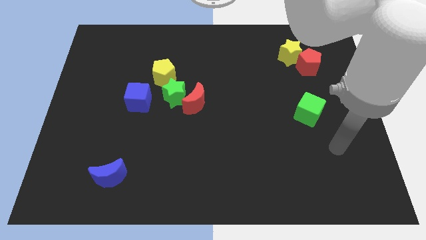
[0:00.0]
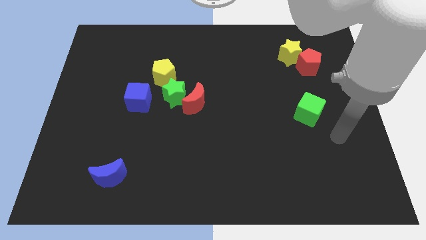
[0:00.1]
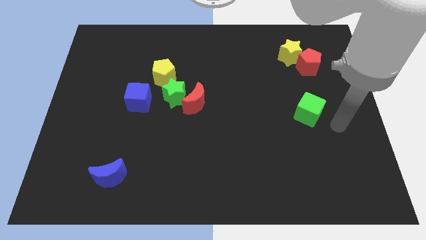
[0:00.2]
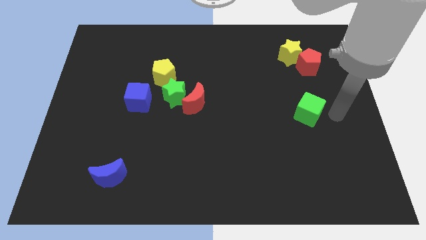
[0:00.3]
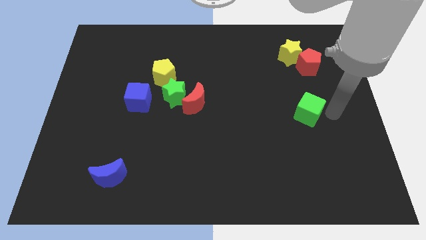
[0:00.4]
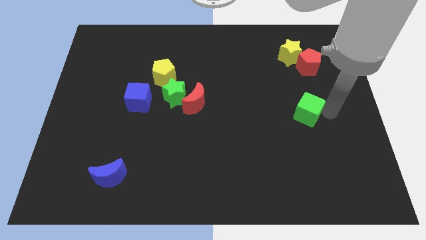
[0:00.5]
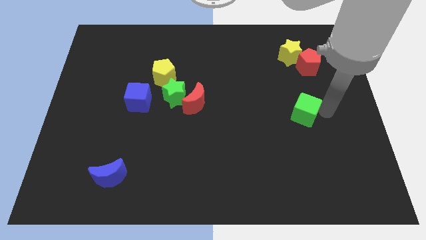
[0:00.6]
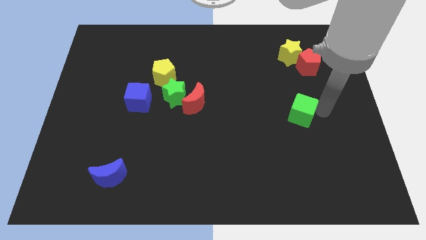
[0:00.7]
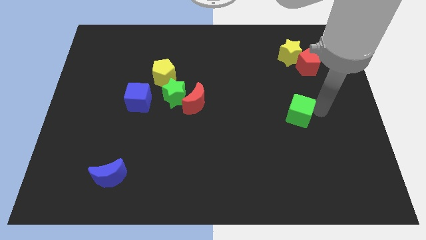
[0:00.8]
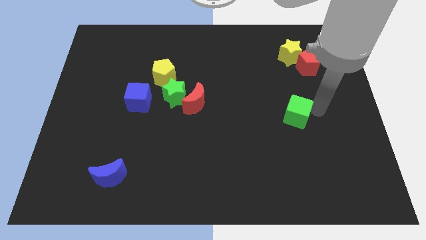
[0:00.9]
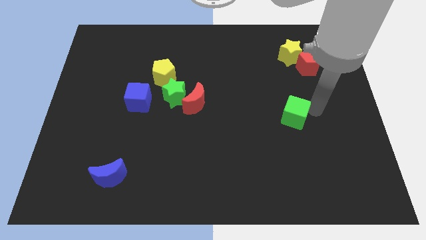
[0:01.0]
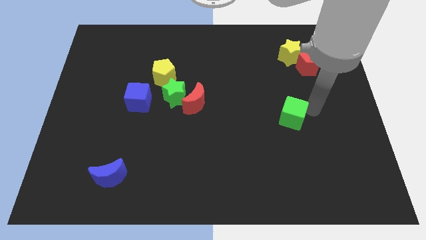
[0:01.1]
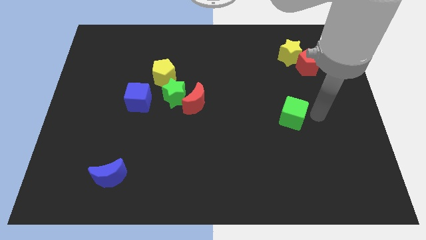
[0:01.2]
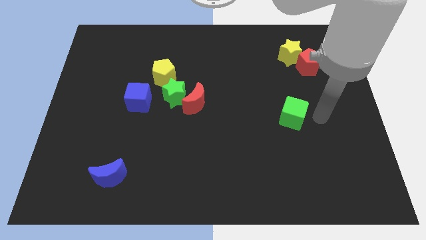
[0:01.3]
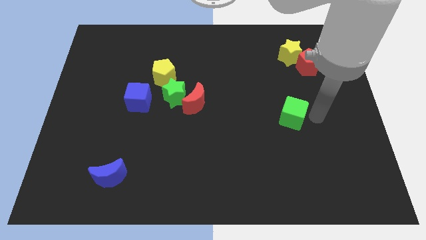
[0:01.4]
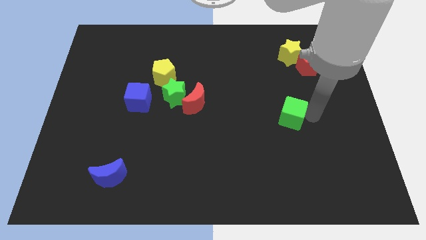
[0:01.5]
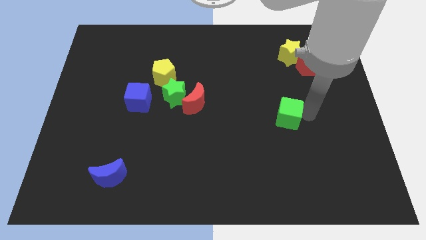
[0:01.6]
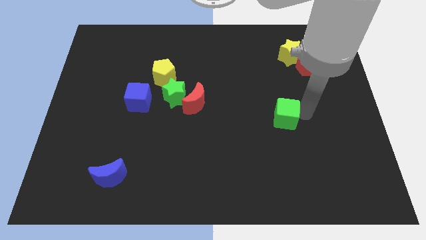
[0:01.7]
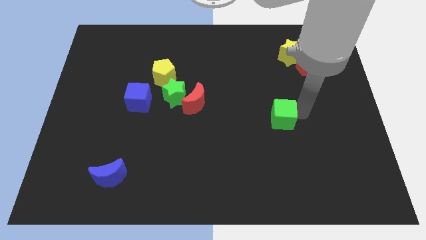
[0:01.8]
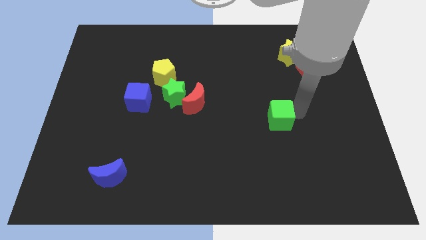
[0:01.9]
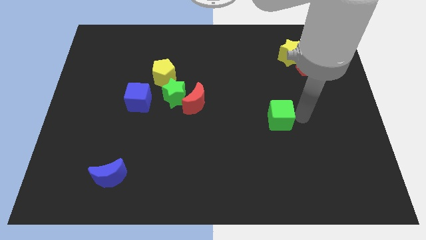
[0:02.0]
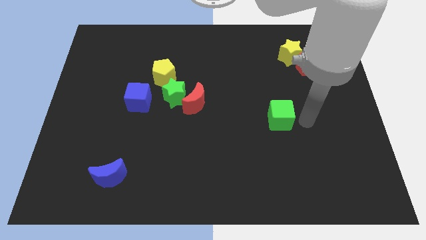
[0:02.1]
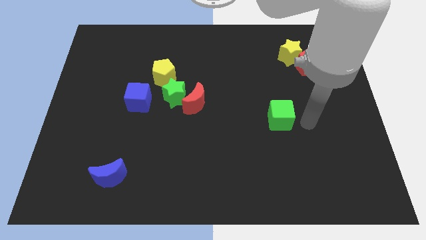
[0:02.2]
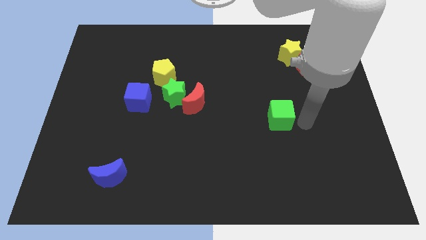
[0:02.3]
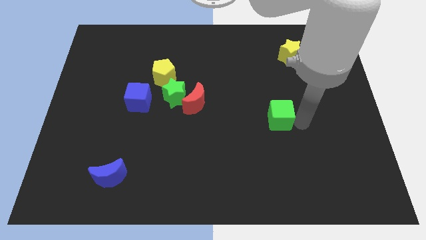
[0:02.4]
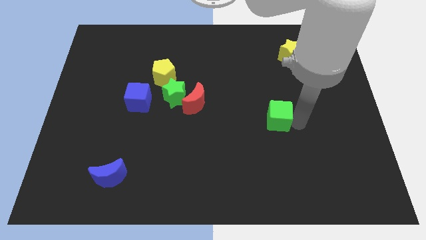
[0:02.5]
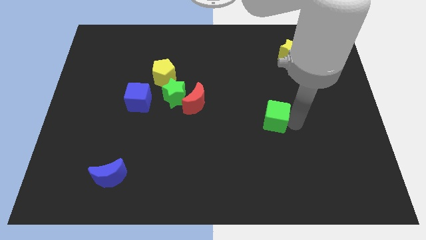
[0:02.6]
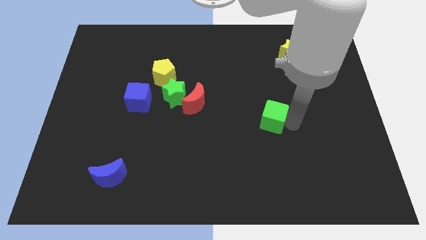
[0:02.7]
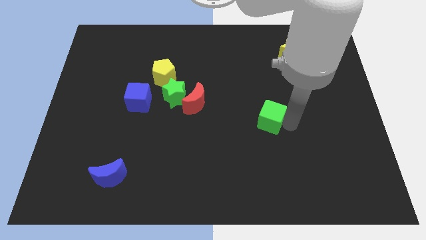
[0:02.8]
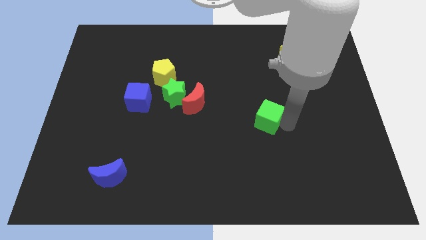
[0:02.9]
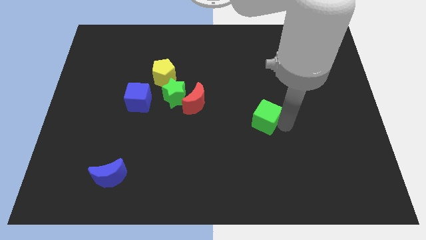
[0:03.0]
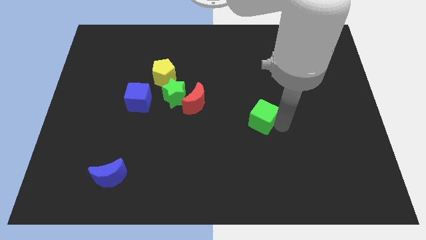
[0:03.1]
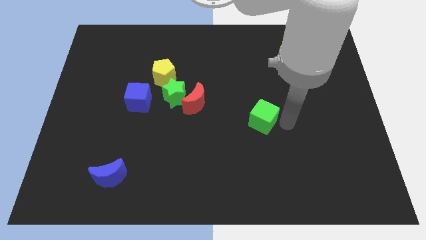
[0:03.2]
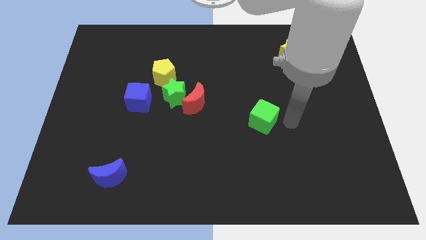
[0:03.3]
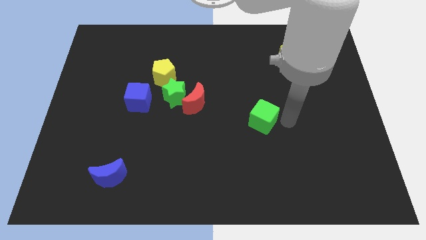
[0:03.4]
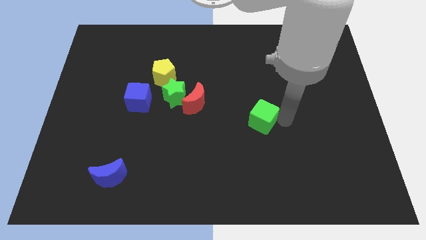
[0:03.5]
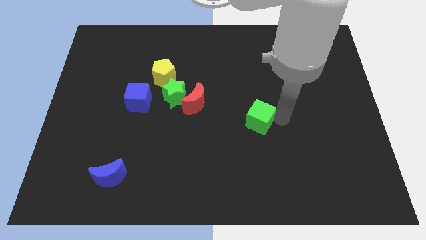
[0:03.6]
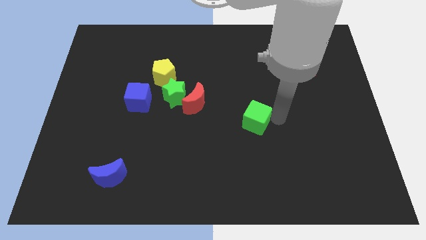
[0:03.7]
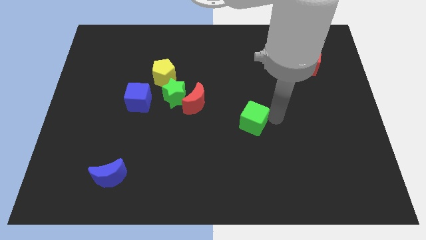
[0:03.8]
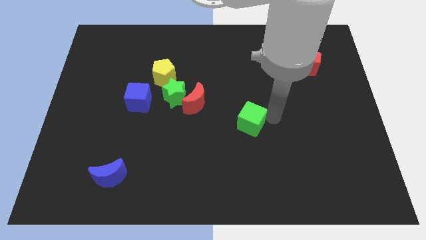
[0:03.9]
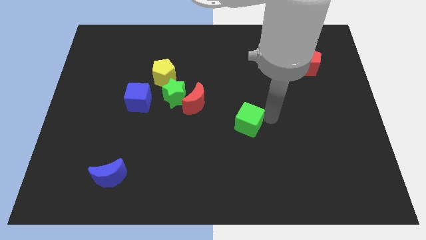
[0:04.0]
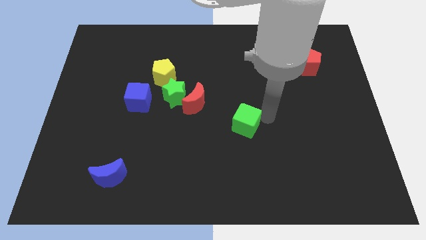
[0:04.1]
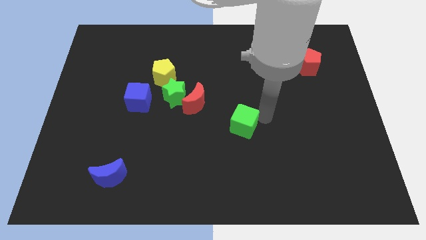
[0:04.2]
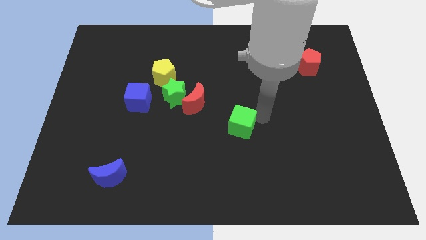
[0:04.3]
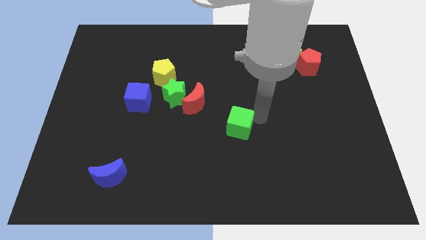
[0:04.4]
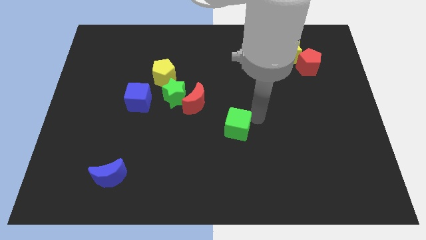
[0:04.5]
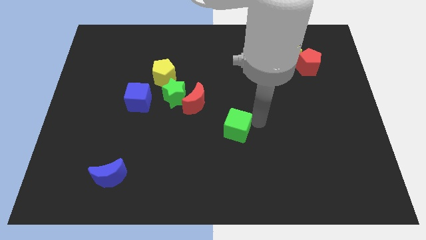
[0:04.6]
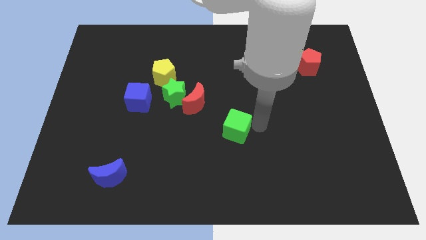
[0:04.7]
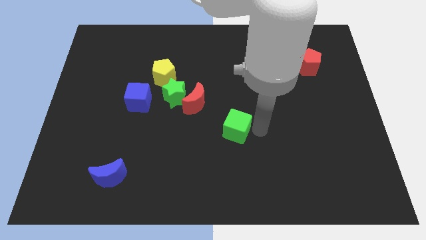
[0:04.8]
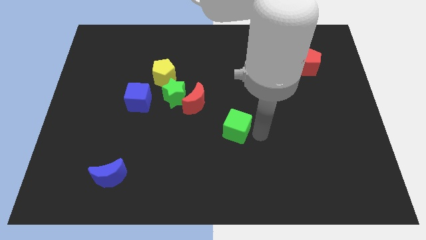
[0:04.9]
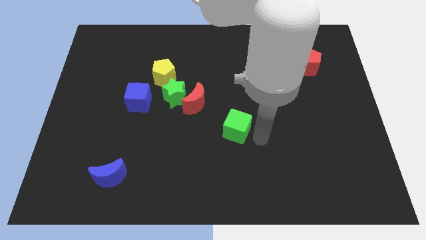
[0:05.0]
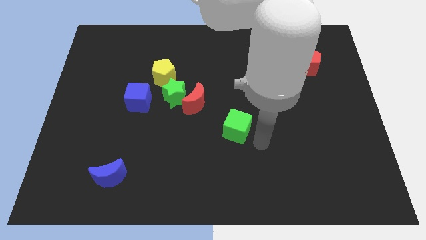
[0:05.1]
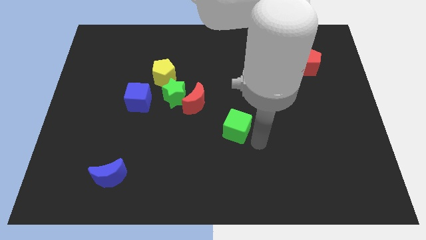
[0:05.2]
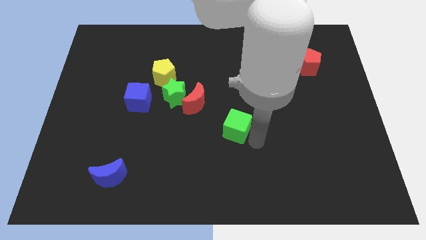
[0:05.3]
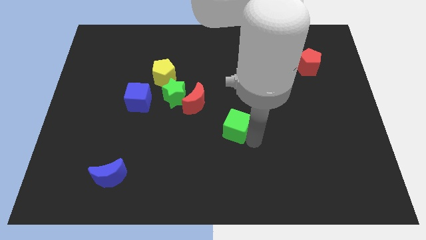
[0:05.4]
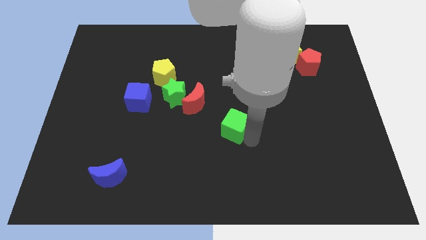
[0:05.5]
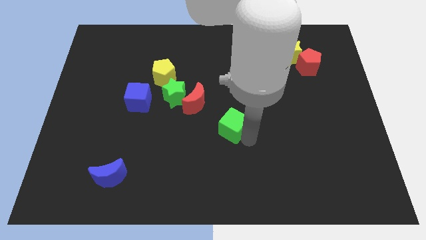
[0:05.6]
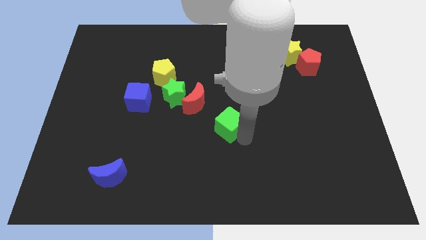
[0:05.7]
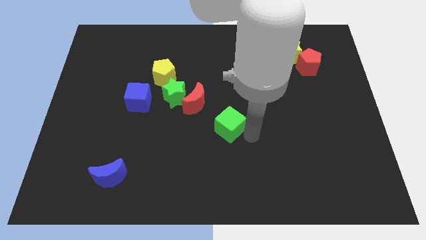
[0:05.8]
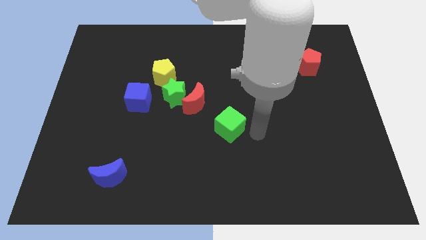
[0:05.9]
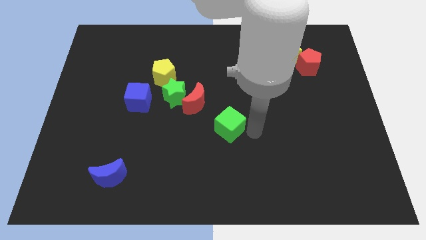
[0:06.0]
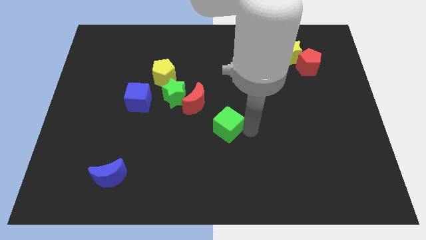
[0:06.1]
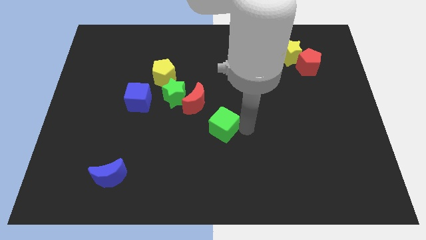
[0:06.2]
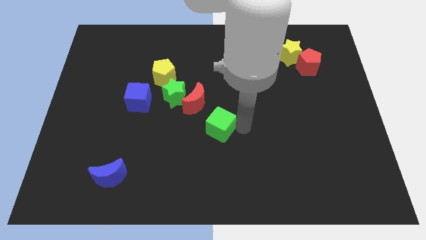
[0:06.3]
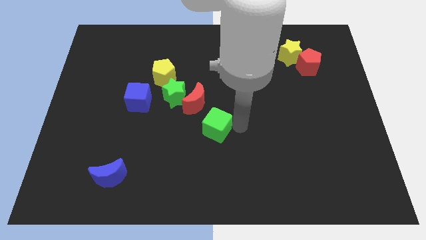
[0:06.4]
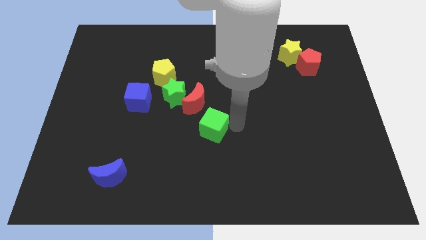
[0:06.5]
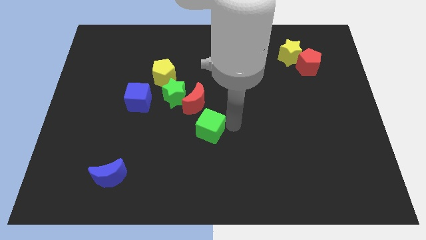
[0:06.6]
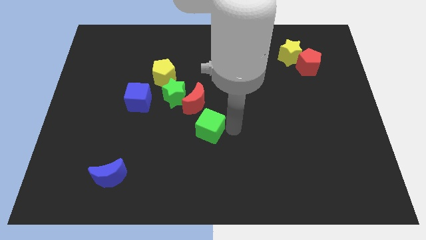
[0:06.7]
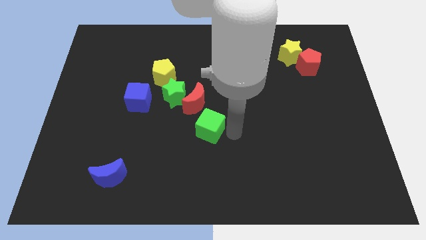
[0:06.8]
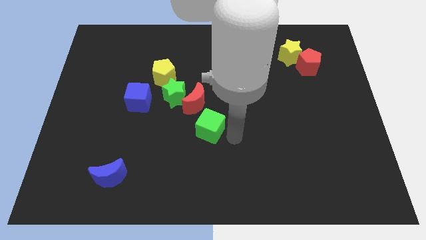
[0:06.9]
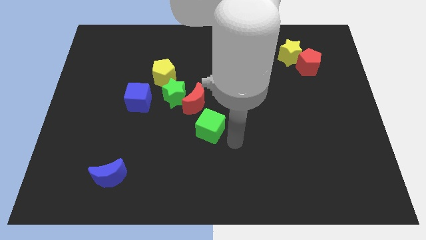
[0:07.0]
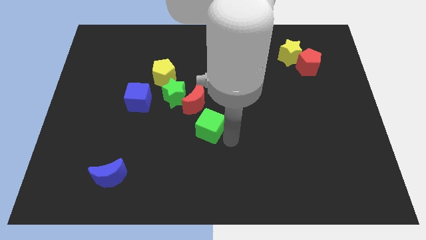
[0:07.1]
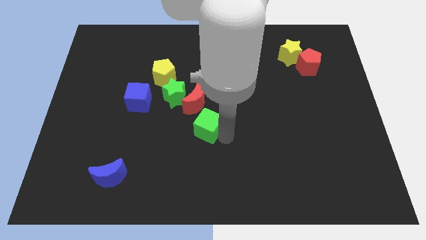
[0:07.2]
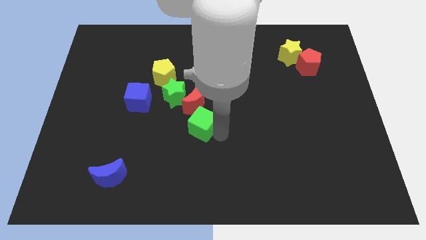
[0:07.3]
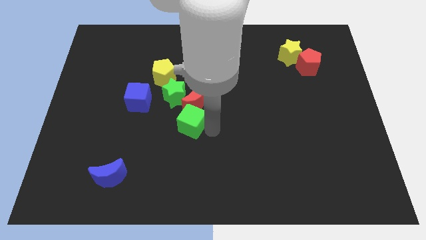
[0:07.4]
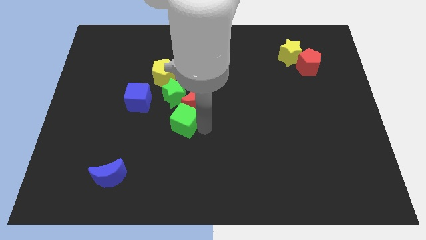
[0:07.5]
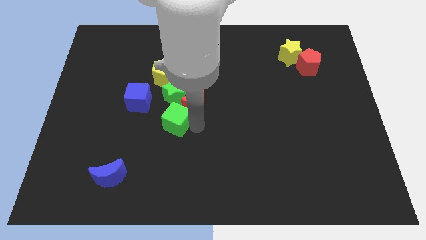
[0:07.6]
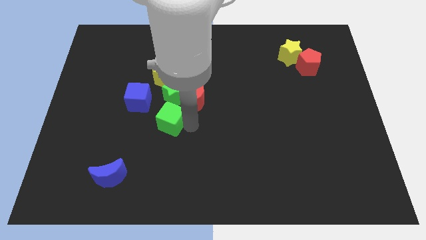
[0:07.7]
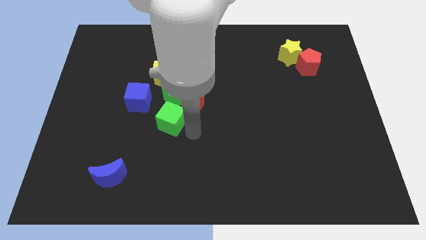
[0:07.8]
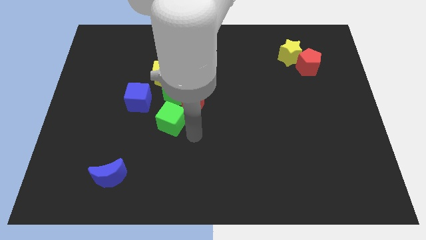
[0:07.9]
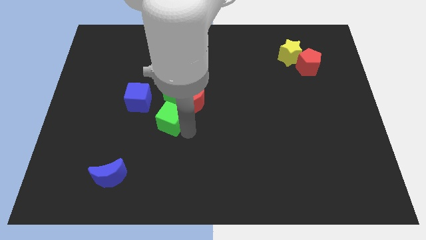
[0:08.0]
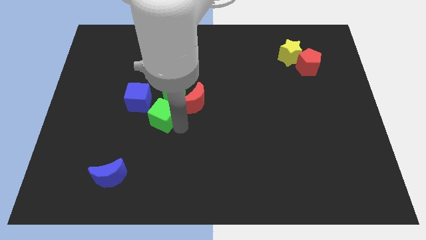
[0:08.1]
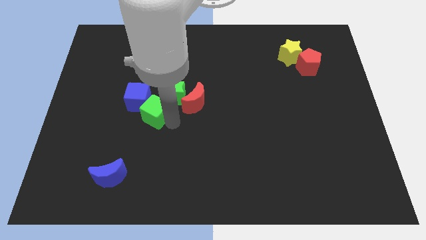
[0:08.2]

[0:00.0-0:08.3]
put the green cube next to the blue cube
